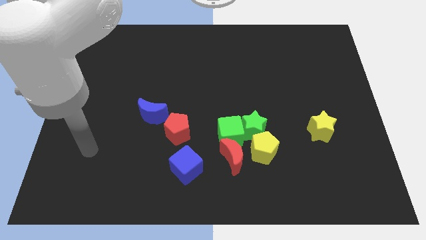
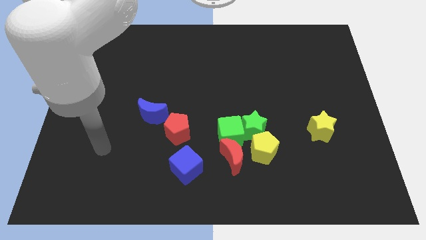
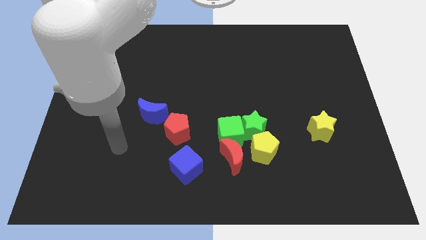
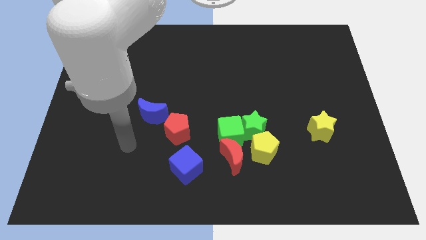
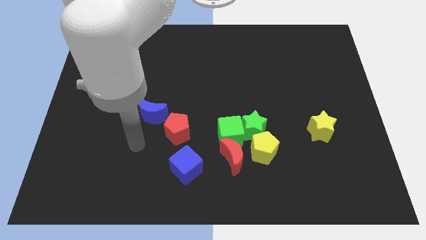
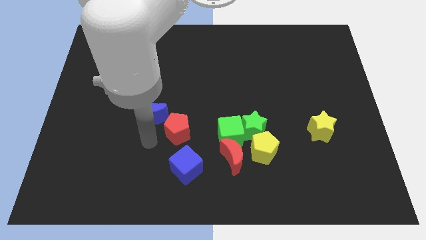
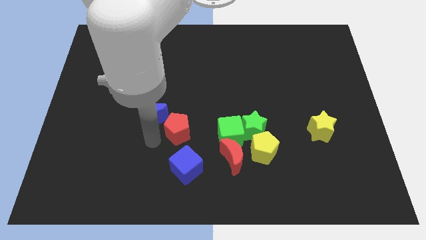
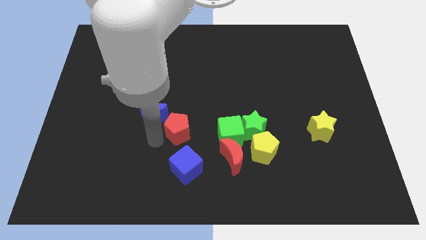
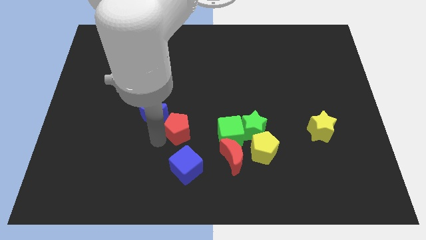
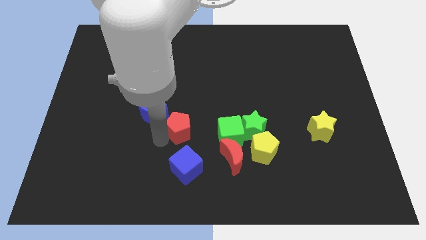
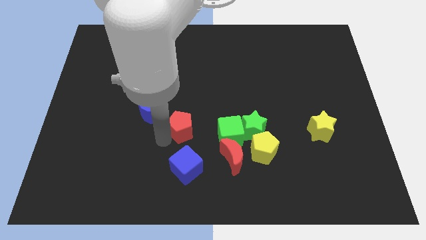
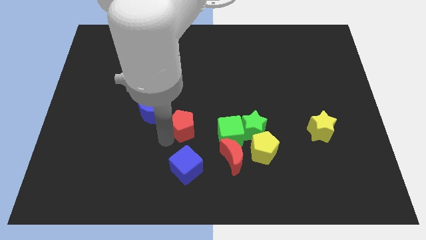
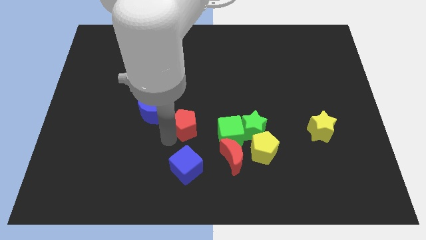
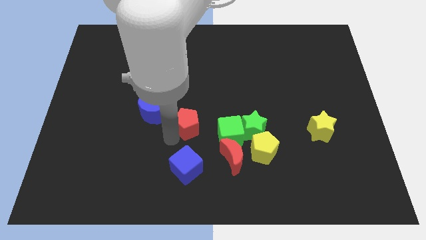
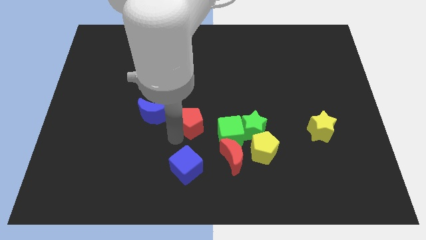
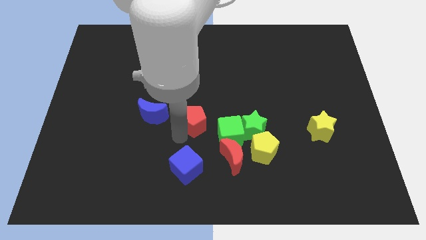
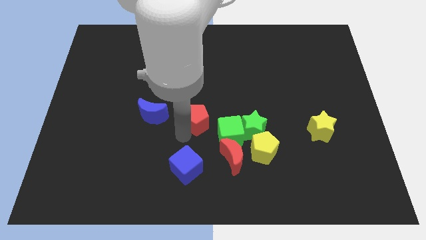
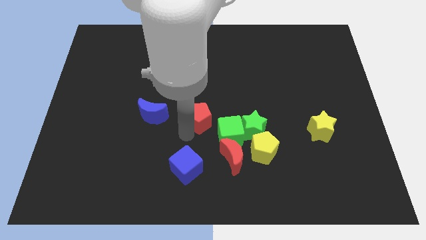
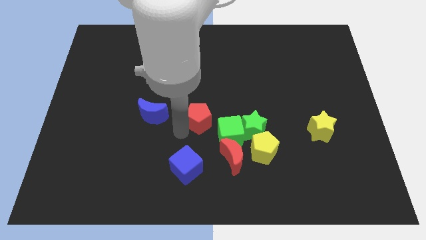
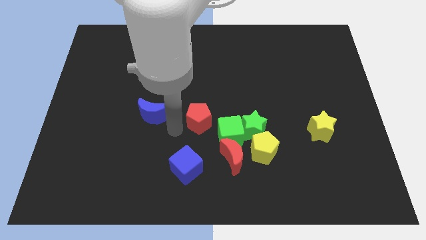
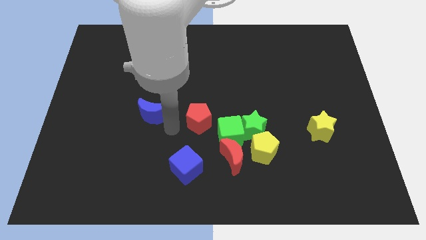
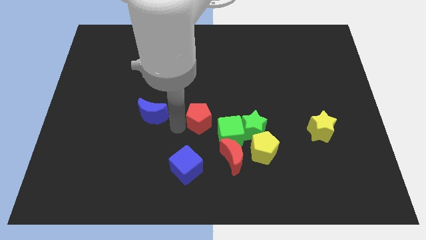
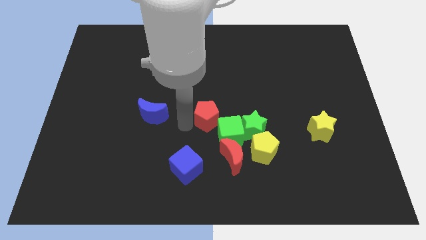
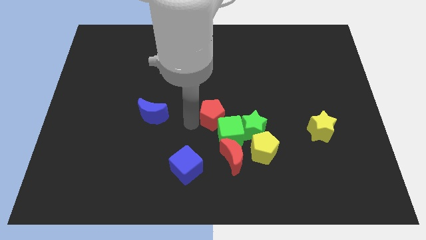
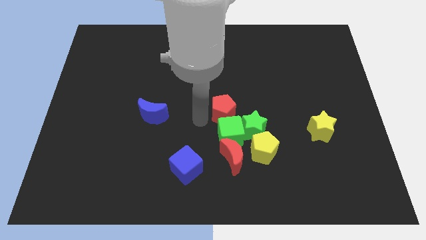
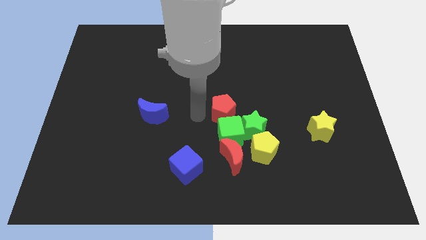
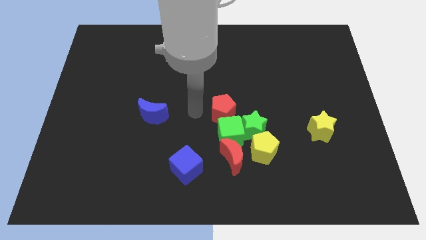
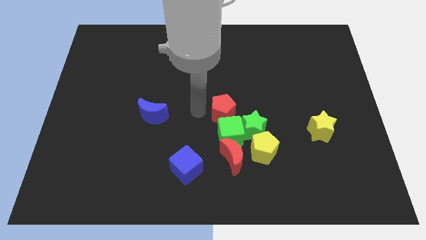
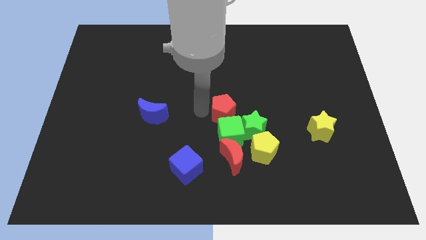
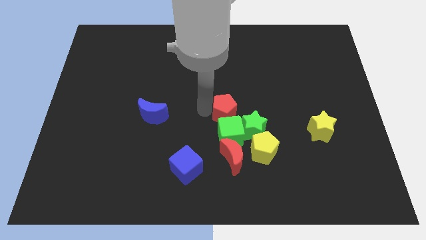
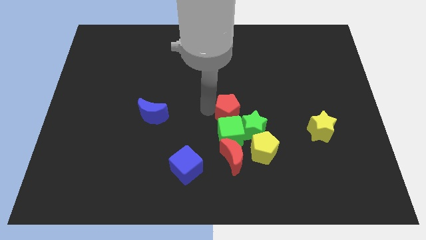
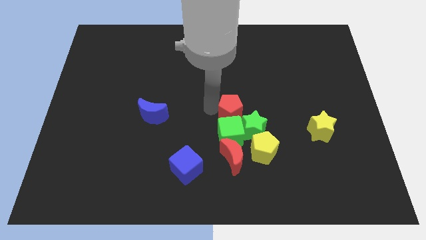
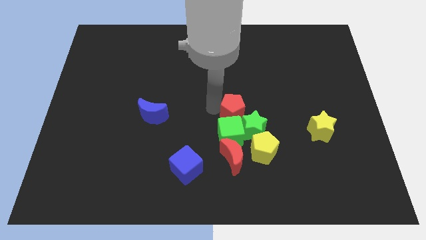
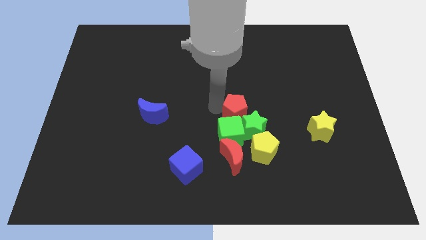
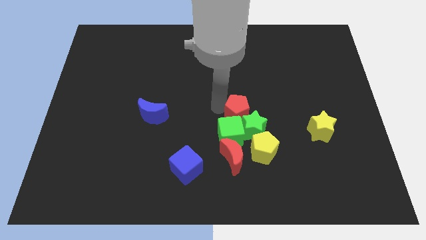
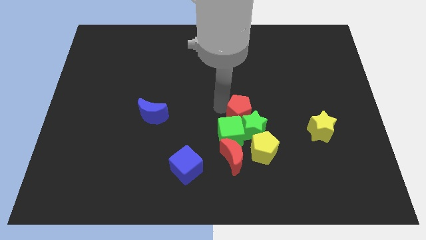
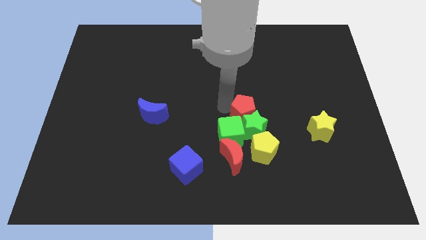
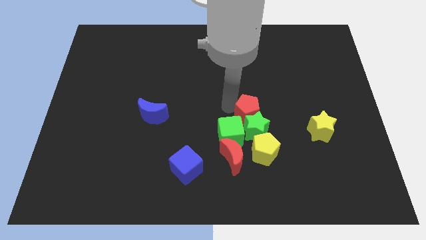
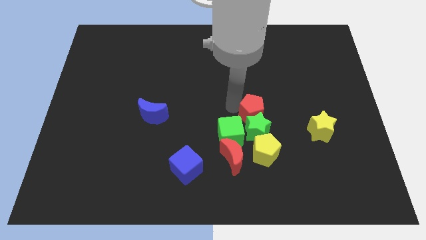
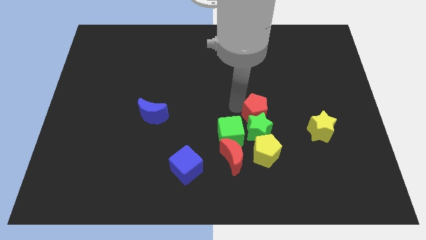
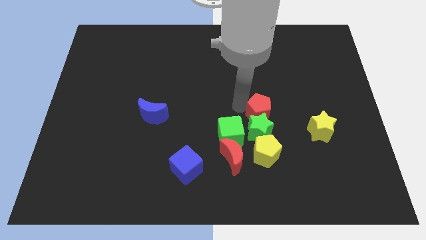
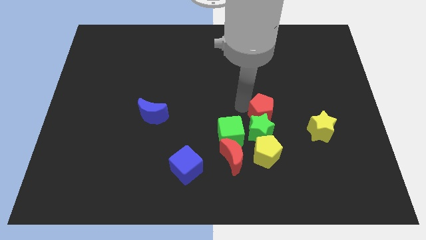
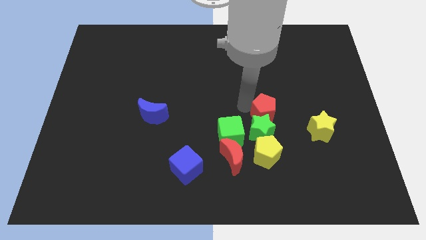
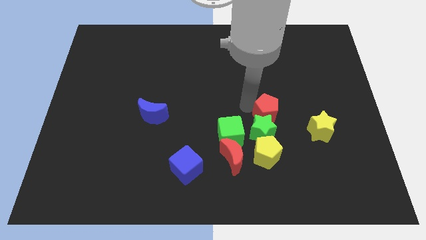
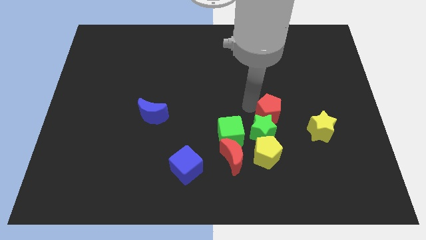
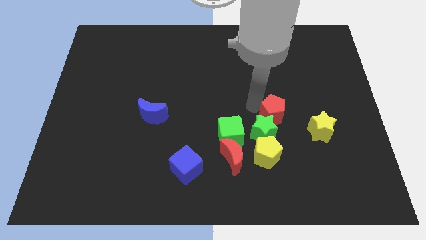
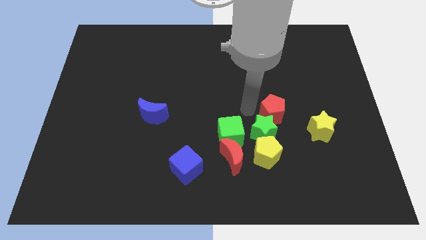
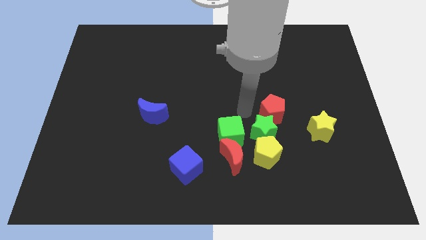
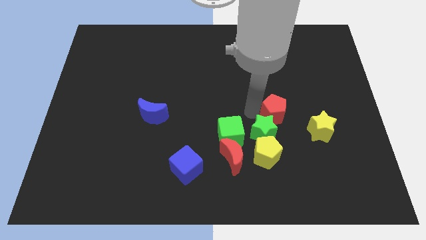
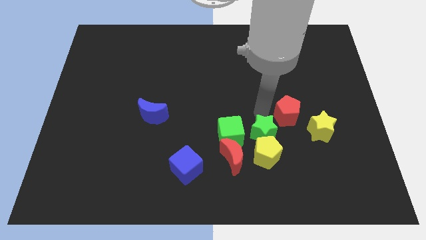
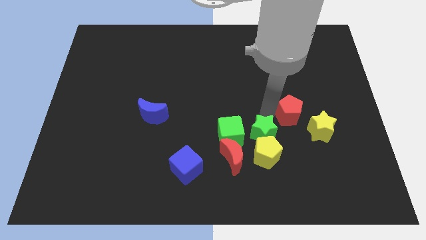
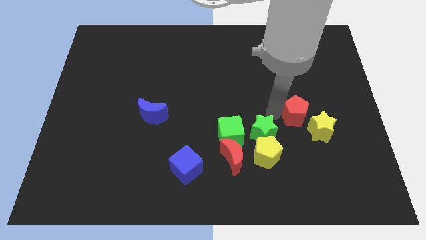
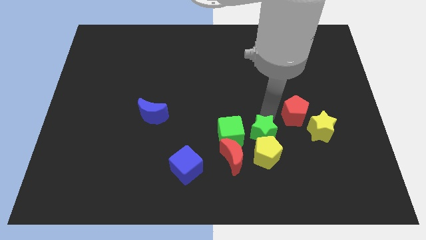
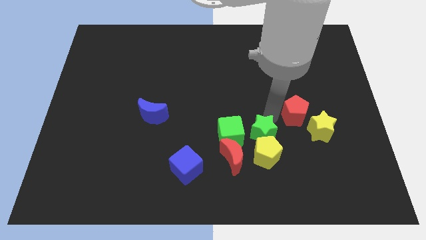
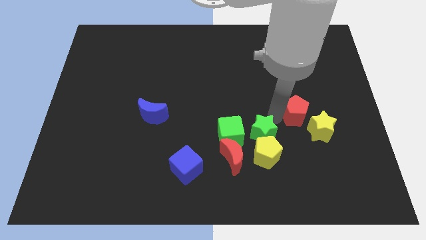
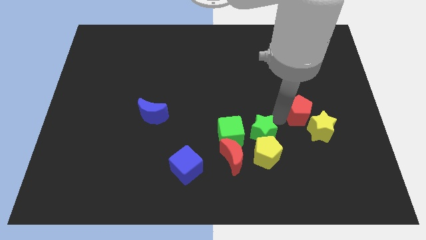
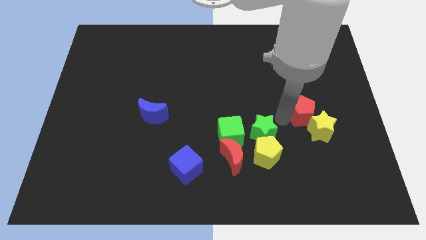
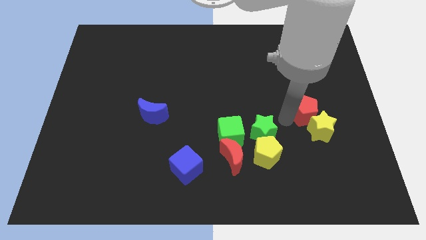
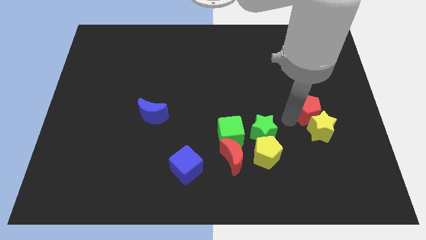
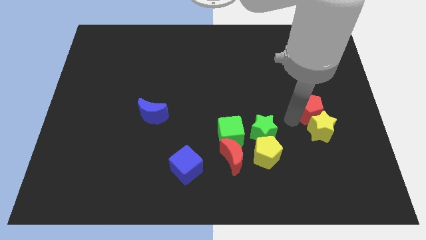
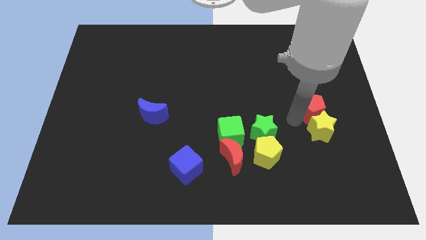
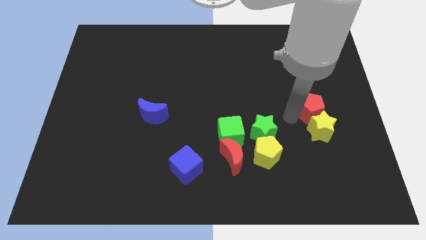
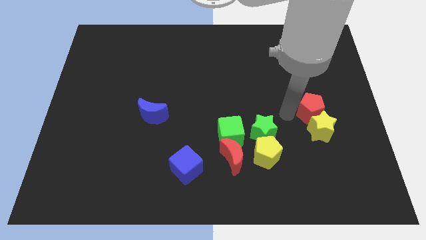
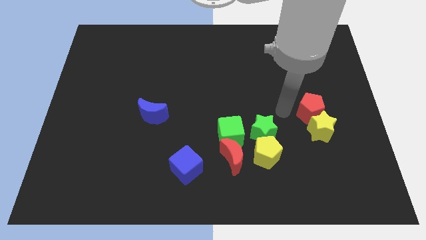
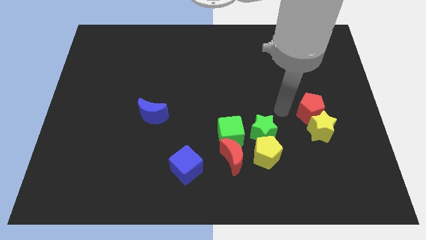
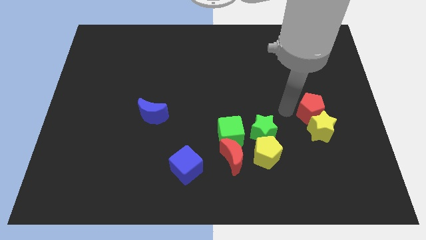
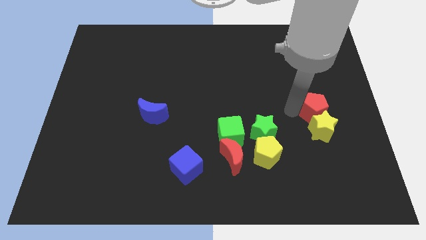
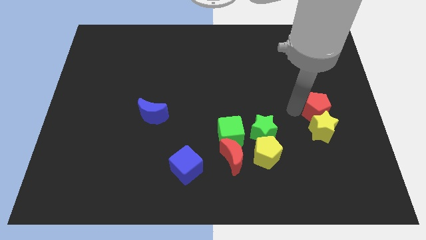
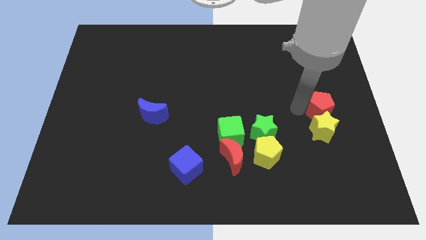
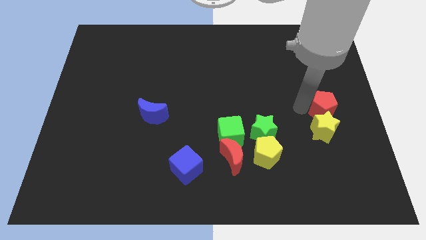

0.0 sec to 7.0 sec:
push the red pentagon to the right side of the board

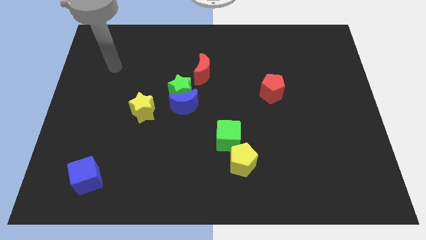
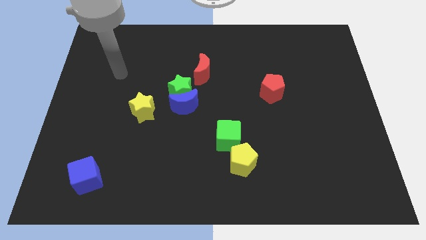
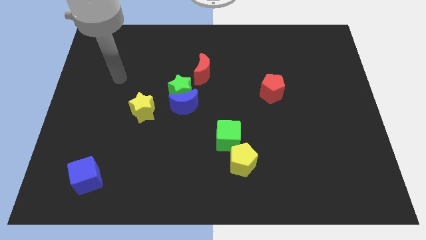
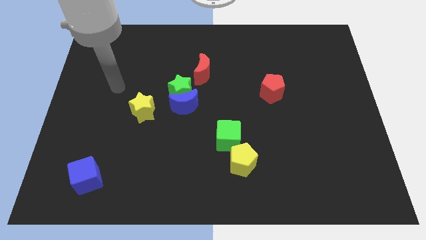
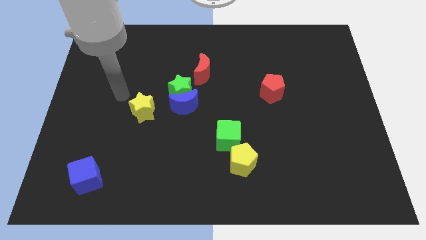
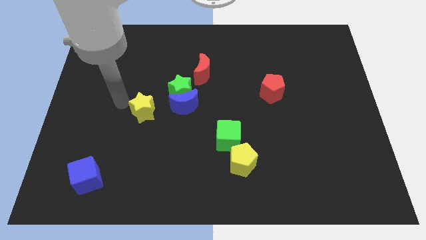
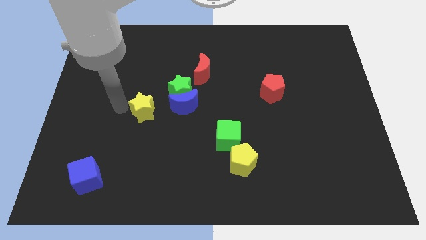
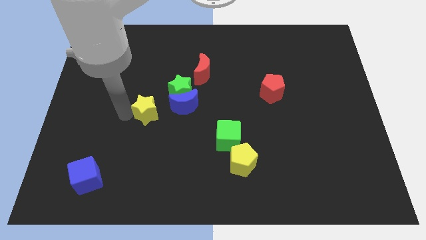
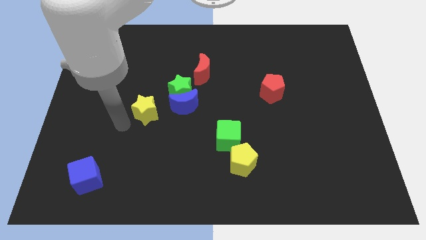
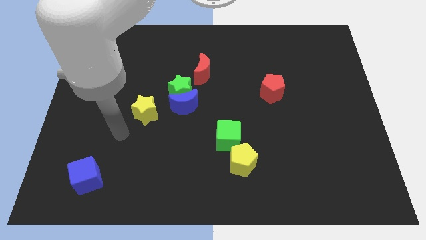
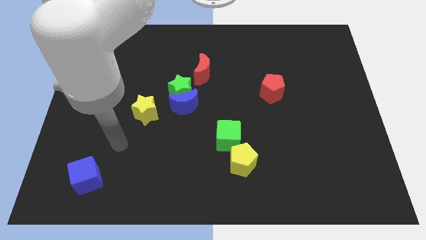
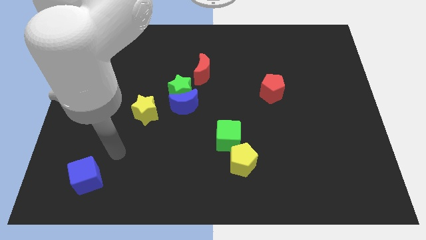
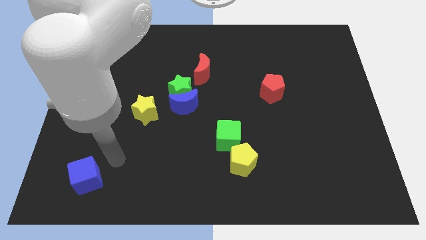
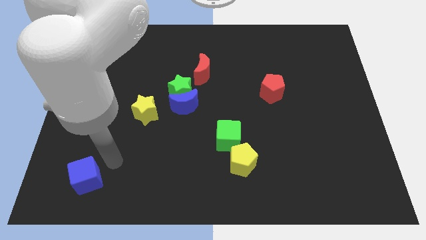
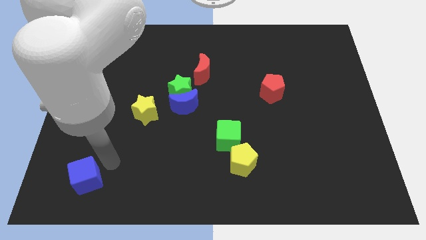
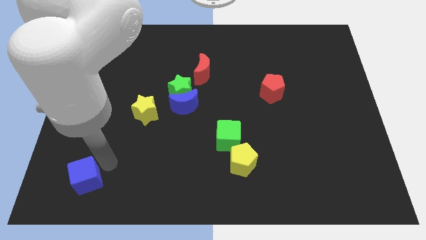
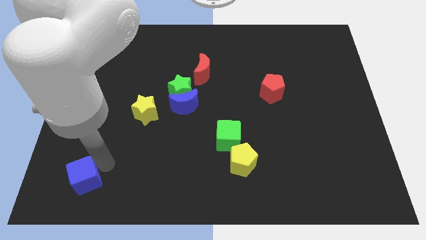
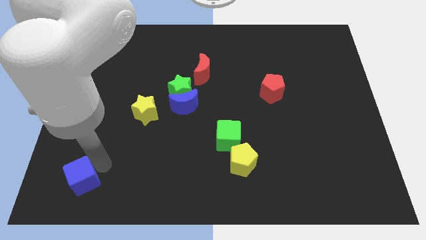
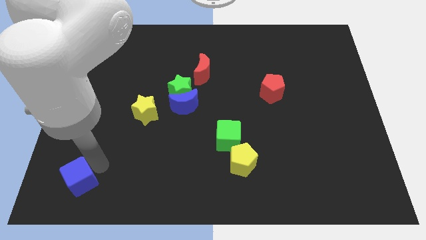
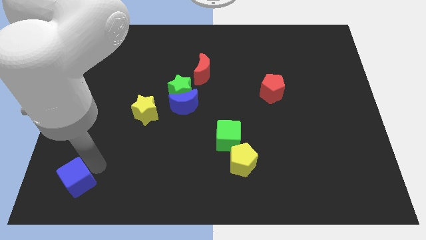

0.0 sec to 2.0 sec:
move the blue cube to the bottom left of the board
